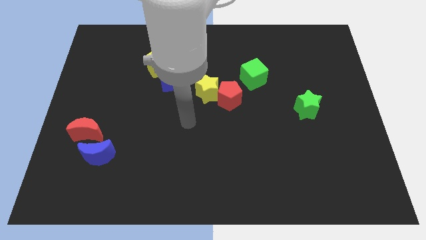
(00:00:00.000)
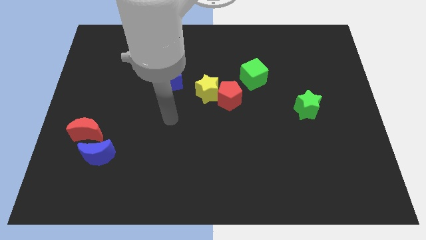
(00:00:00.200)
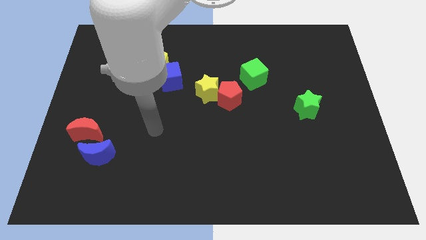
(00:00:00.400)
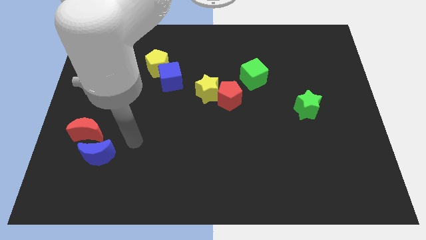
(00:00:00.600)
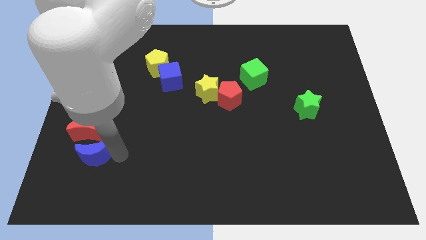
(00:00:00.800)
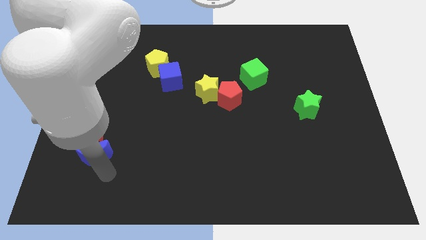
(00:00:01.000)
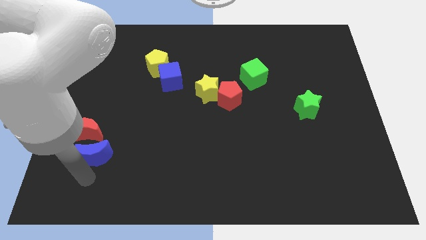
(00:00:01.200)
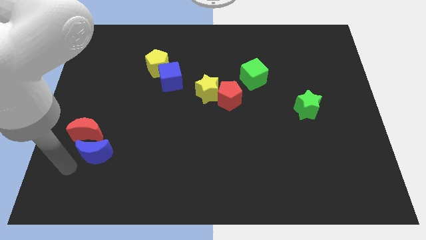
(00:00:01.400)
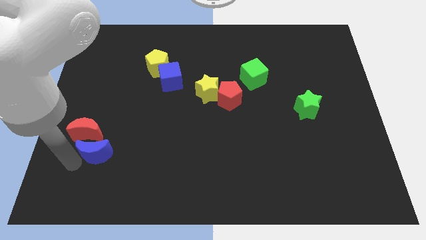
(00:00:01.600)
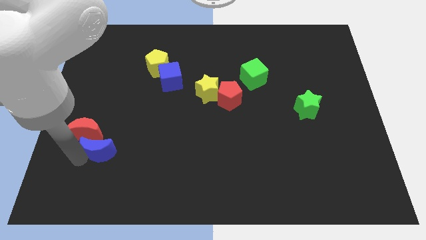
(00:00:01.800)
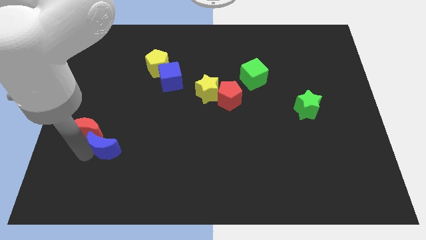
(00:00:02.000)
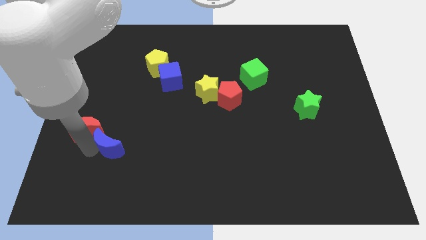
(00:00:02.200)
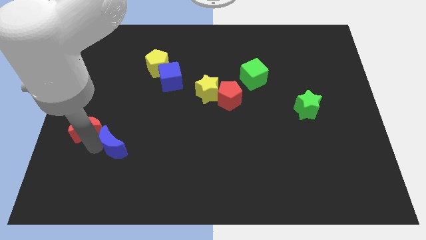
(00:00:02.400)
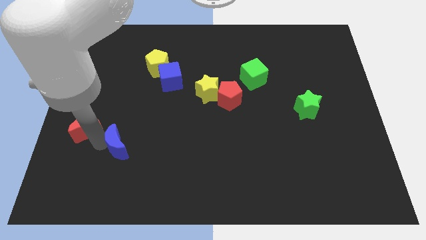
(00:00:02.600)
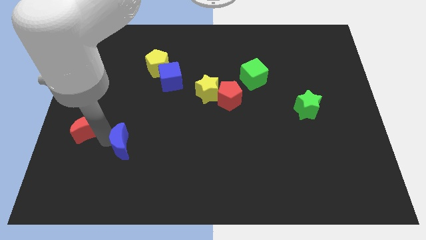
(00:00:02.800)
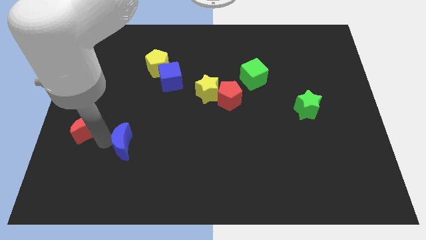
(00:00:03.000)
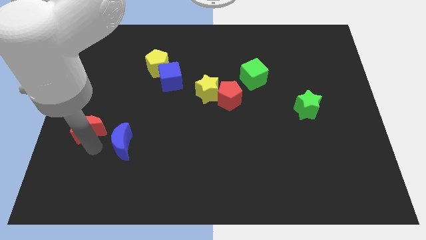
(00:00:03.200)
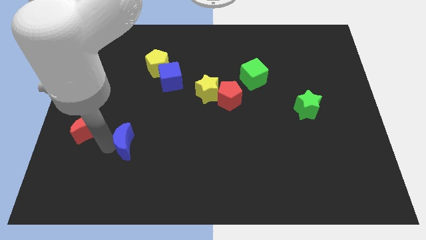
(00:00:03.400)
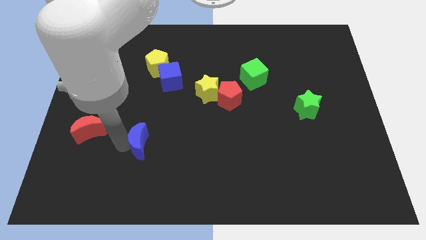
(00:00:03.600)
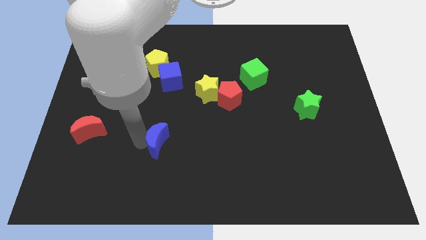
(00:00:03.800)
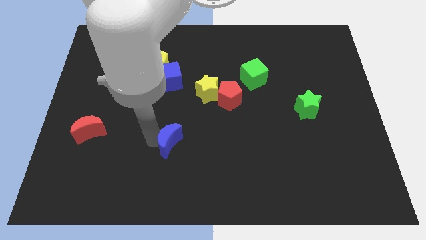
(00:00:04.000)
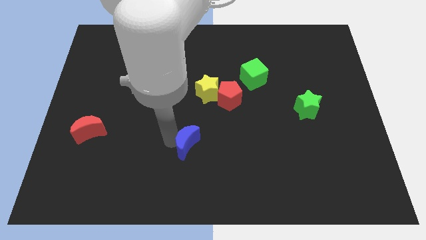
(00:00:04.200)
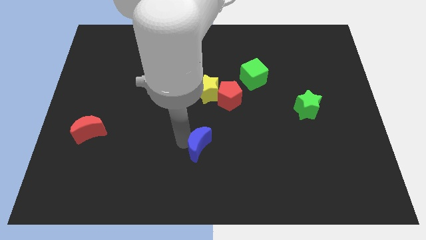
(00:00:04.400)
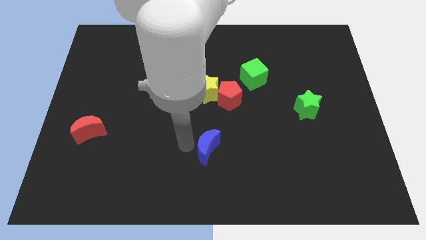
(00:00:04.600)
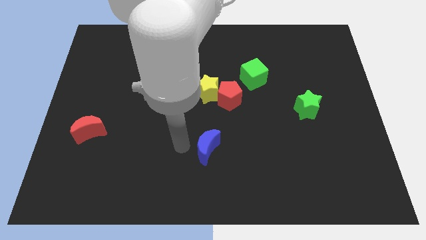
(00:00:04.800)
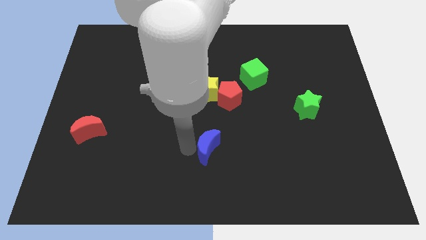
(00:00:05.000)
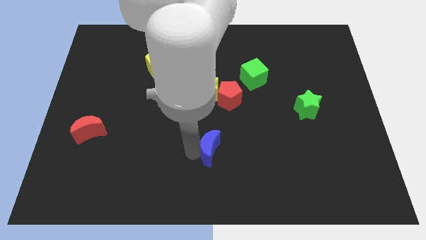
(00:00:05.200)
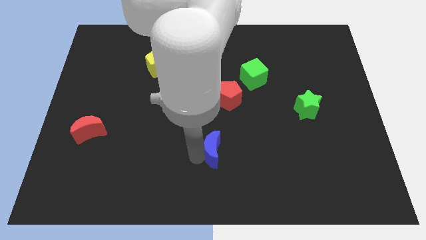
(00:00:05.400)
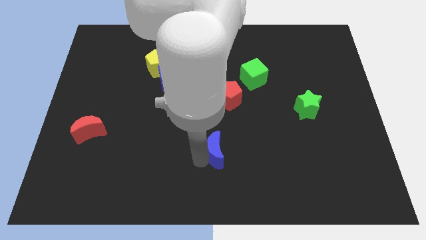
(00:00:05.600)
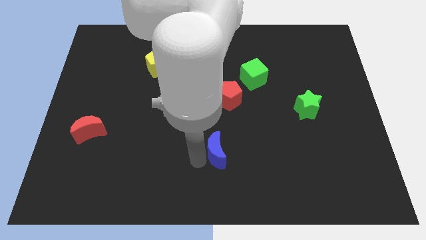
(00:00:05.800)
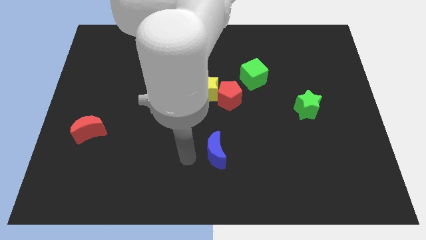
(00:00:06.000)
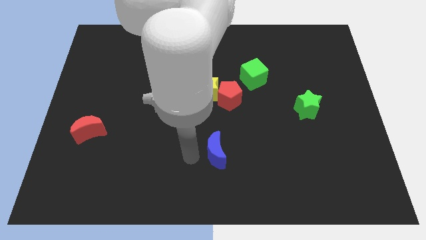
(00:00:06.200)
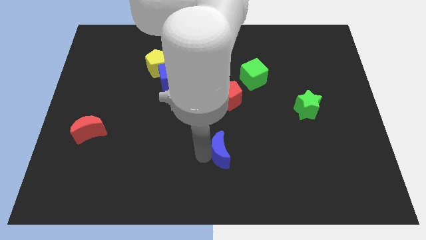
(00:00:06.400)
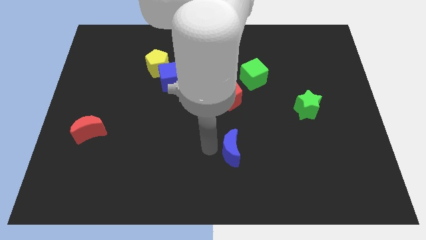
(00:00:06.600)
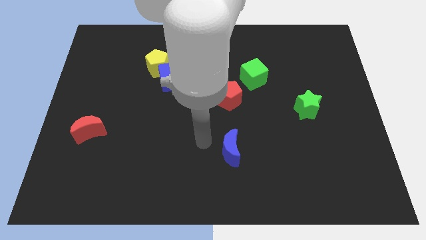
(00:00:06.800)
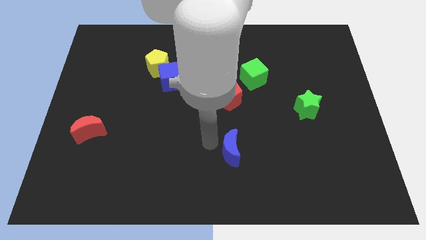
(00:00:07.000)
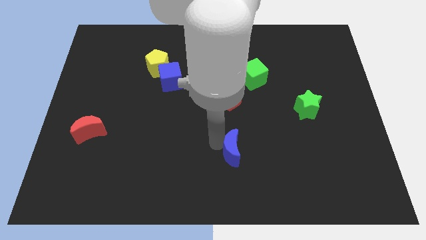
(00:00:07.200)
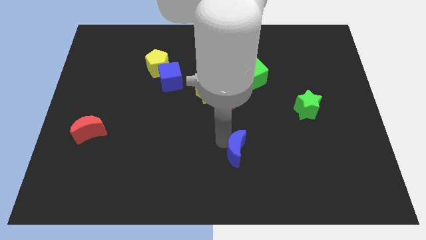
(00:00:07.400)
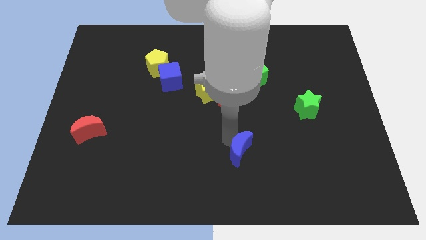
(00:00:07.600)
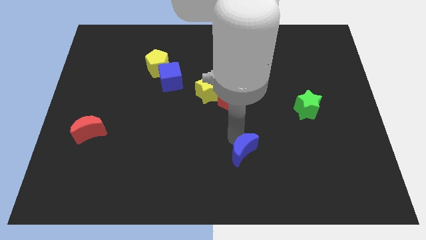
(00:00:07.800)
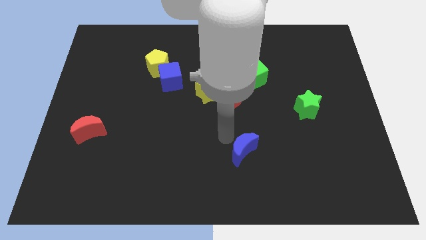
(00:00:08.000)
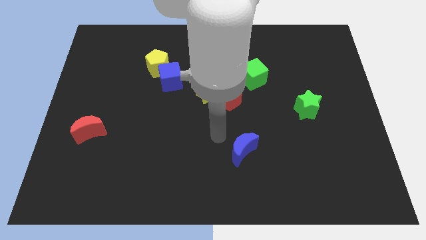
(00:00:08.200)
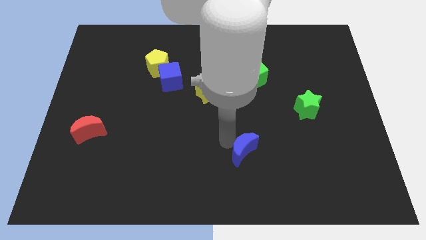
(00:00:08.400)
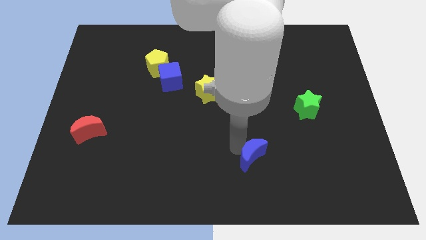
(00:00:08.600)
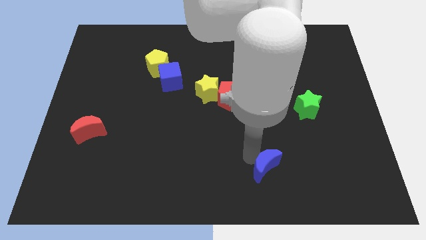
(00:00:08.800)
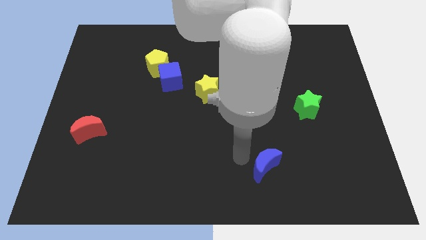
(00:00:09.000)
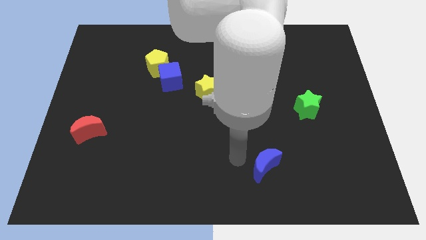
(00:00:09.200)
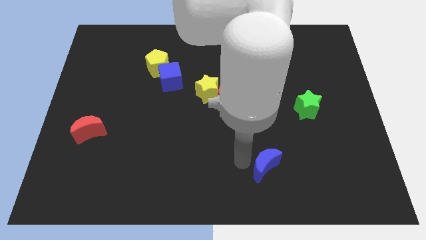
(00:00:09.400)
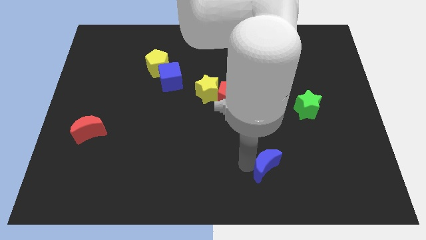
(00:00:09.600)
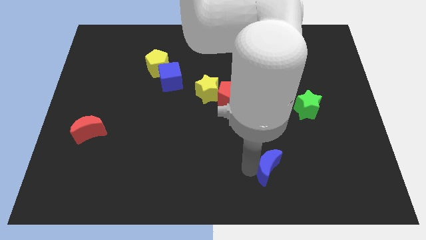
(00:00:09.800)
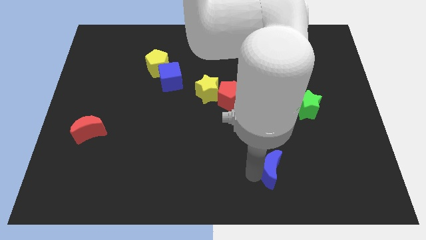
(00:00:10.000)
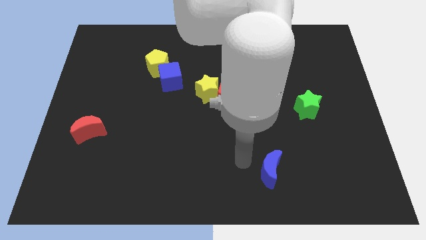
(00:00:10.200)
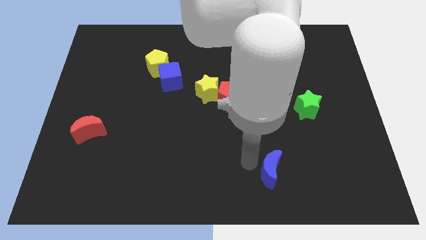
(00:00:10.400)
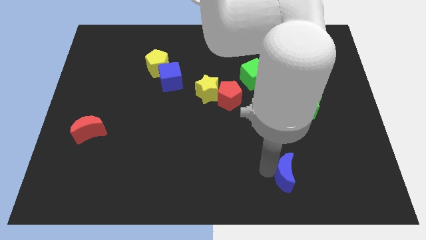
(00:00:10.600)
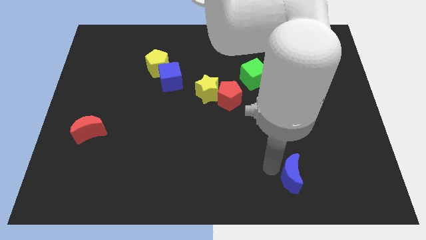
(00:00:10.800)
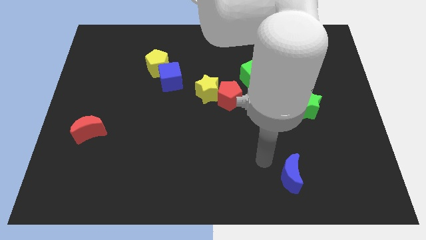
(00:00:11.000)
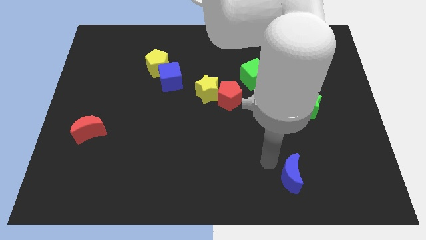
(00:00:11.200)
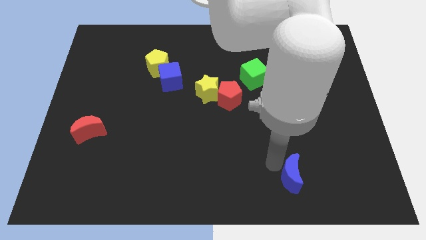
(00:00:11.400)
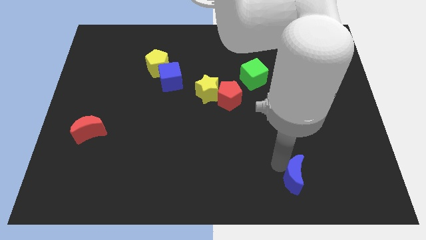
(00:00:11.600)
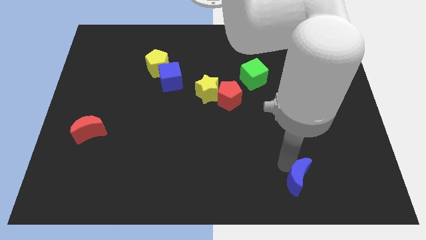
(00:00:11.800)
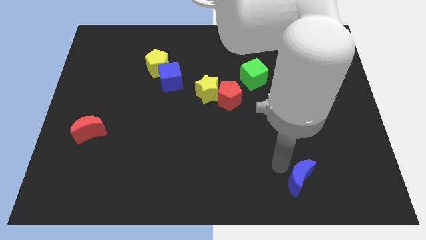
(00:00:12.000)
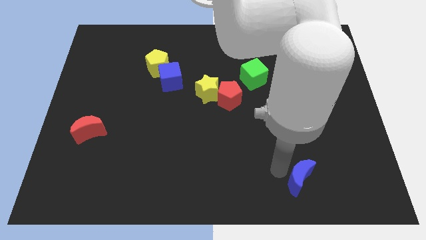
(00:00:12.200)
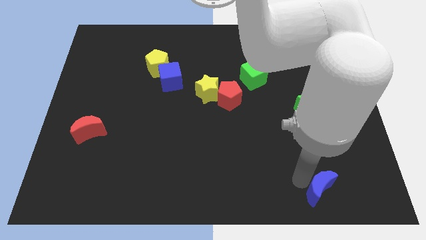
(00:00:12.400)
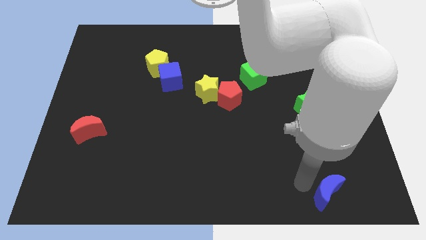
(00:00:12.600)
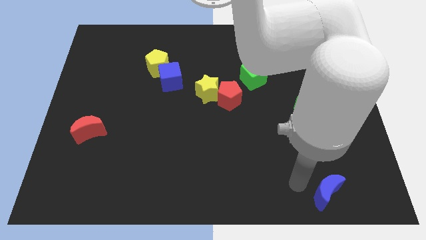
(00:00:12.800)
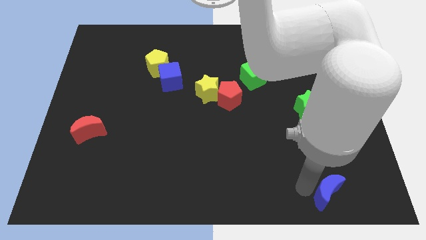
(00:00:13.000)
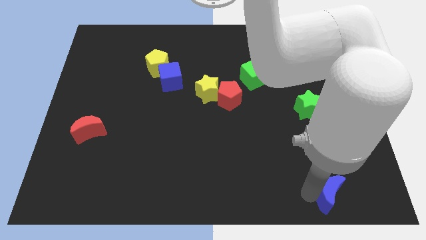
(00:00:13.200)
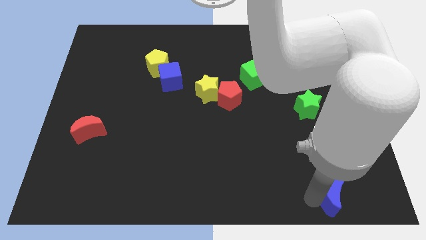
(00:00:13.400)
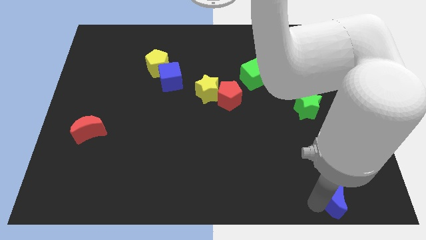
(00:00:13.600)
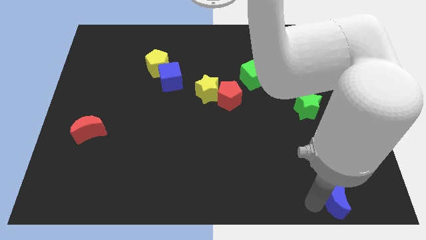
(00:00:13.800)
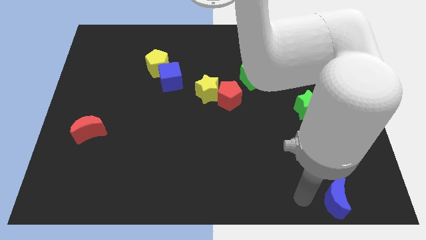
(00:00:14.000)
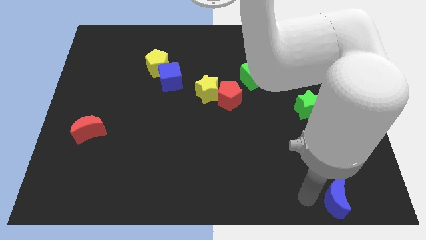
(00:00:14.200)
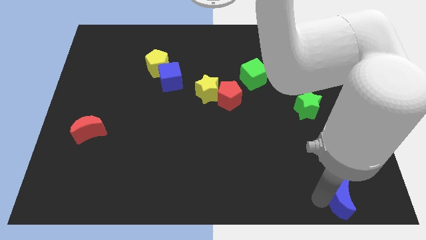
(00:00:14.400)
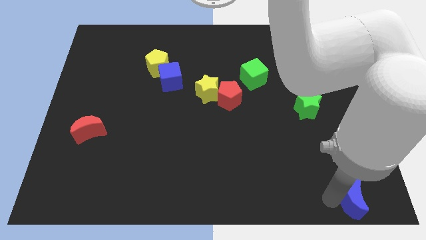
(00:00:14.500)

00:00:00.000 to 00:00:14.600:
put the blue moon to the lower right corner
